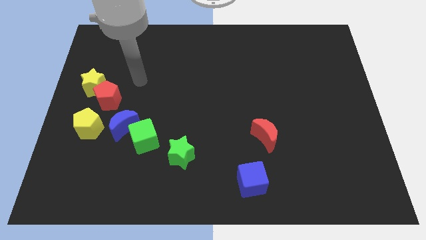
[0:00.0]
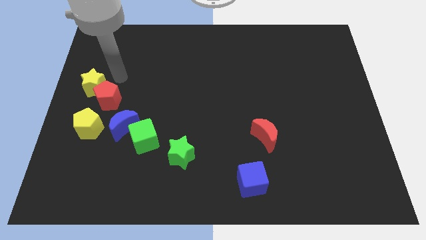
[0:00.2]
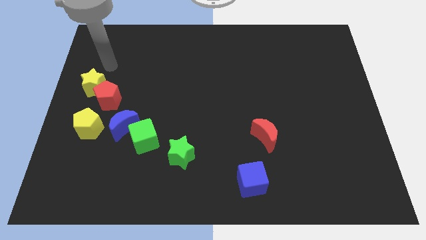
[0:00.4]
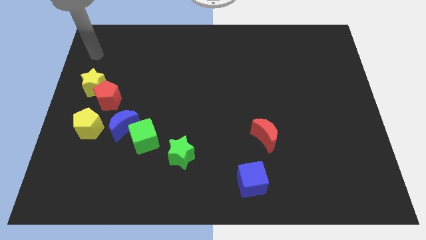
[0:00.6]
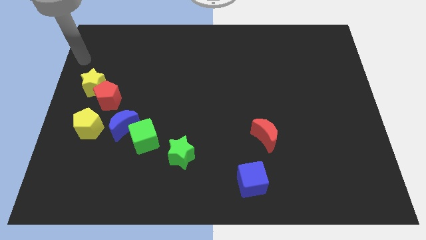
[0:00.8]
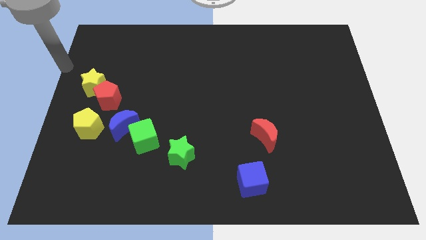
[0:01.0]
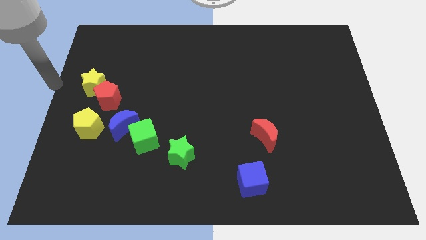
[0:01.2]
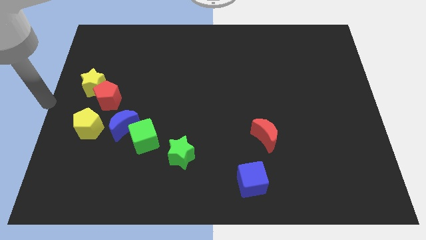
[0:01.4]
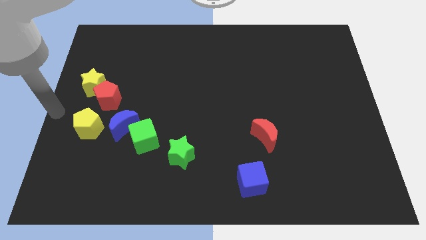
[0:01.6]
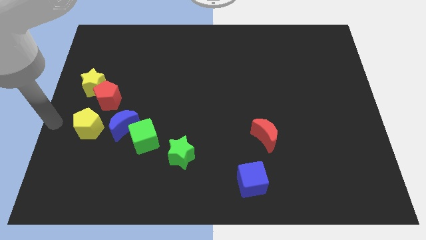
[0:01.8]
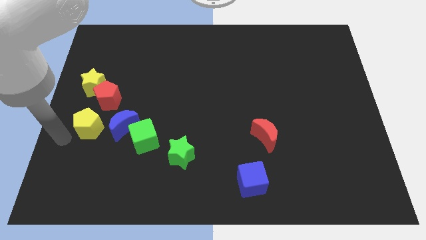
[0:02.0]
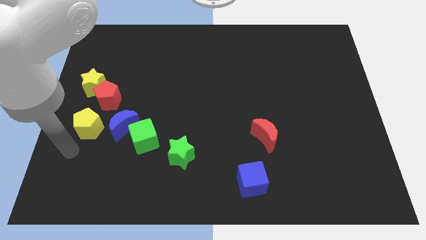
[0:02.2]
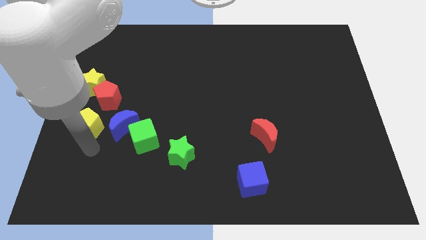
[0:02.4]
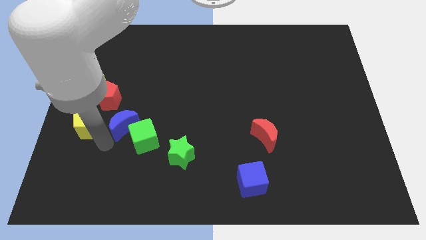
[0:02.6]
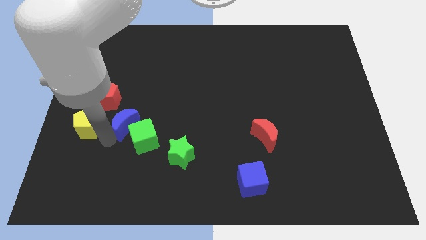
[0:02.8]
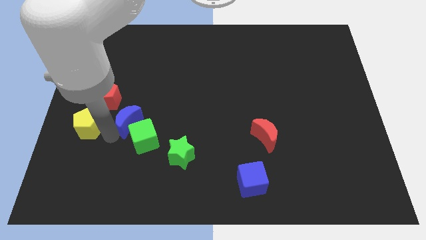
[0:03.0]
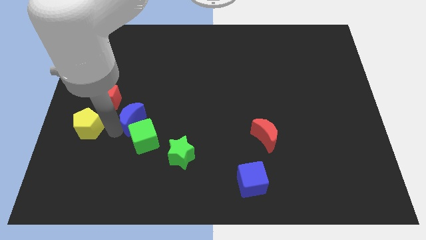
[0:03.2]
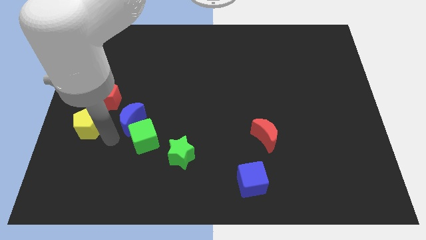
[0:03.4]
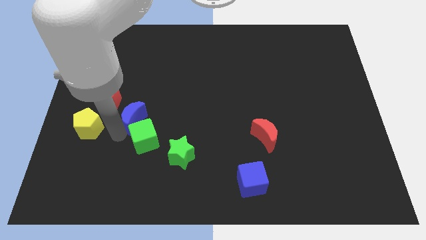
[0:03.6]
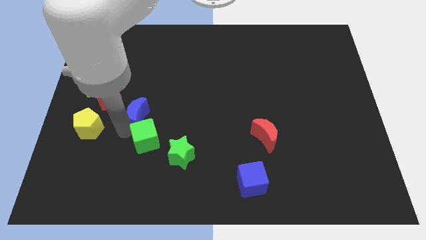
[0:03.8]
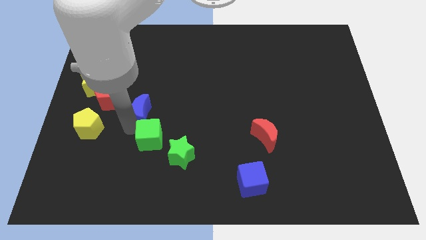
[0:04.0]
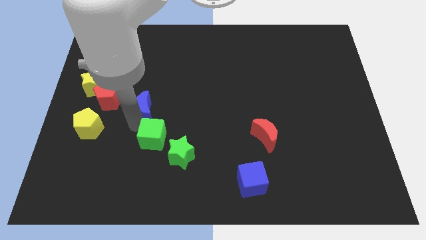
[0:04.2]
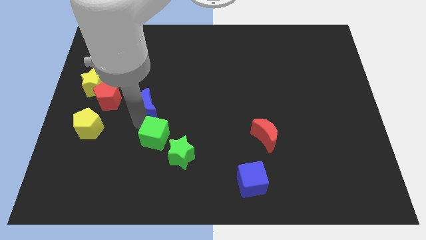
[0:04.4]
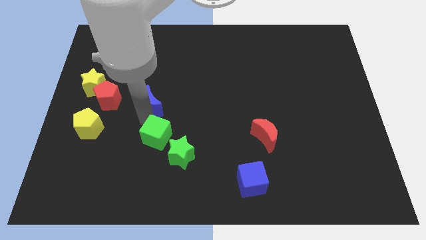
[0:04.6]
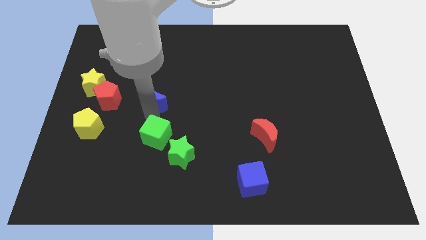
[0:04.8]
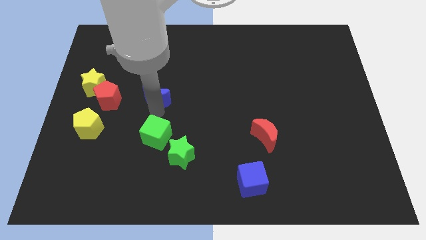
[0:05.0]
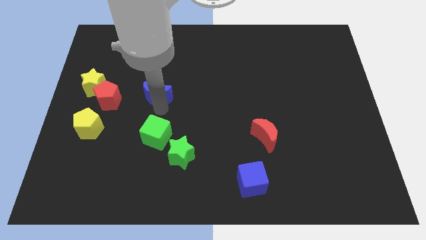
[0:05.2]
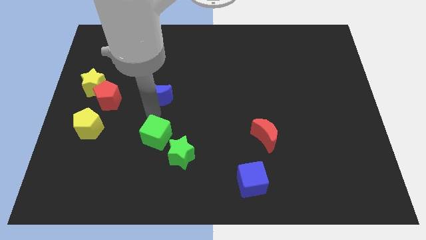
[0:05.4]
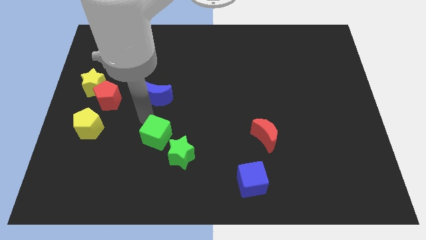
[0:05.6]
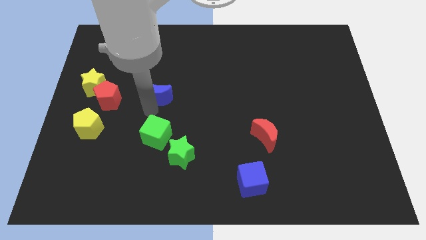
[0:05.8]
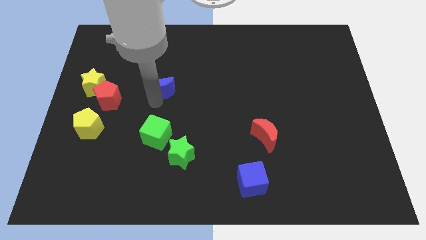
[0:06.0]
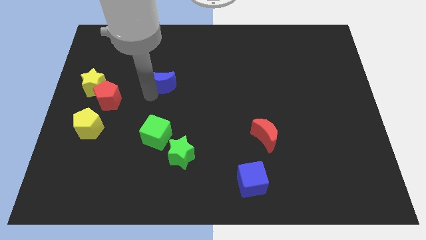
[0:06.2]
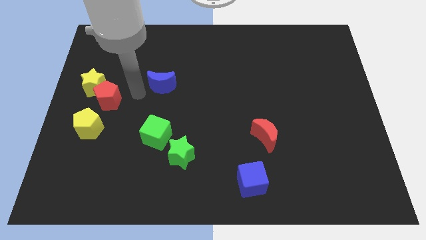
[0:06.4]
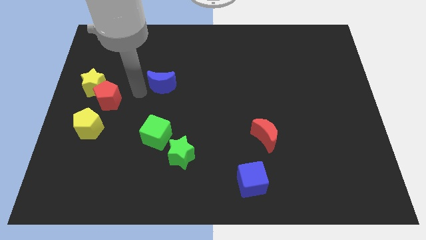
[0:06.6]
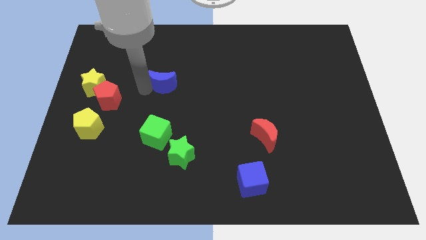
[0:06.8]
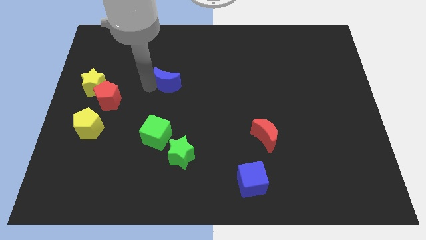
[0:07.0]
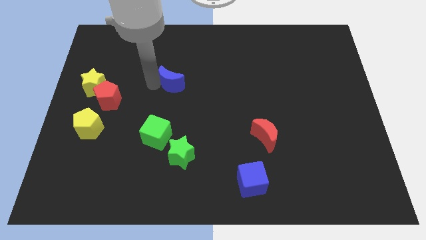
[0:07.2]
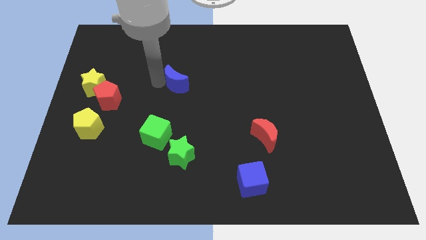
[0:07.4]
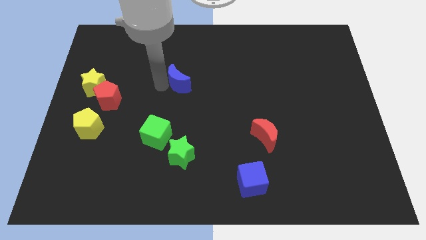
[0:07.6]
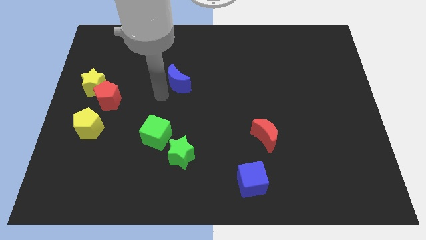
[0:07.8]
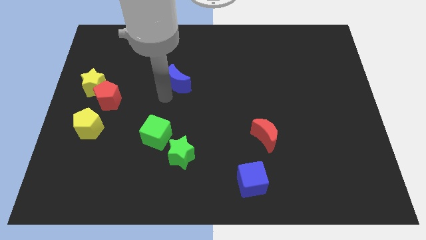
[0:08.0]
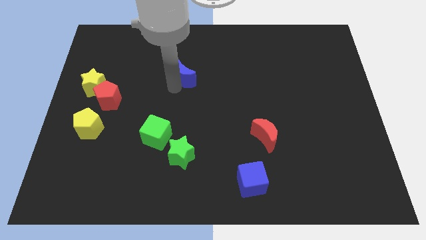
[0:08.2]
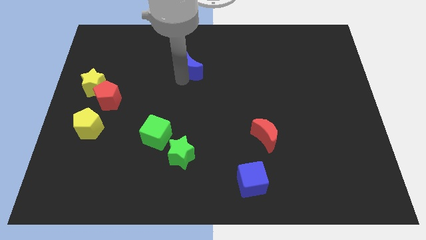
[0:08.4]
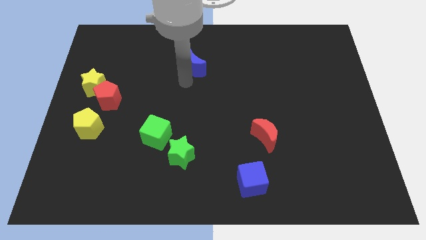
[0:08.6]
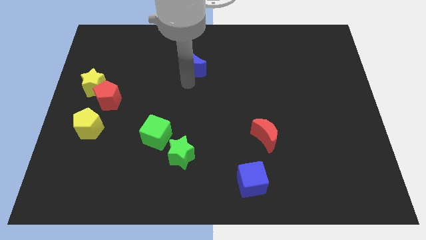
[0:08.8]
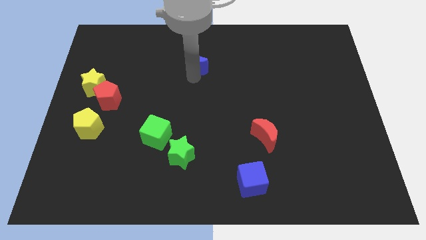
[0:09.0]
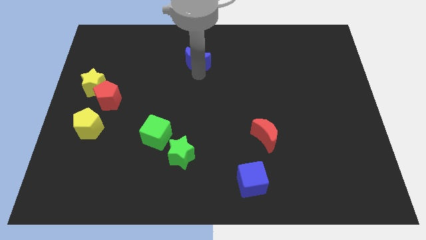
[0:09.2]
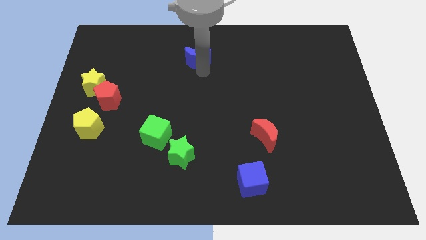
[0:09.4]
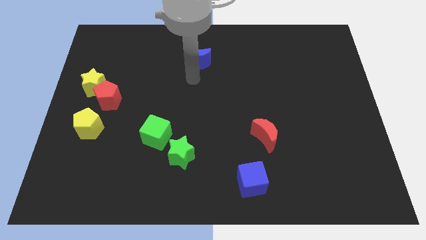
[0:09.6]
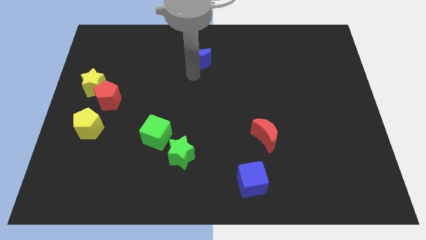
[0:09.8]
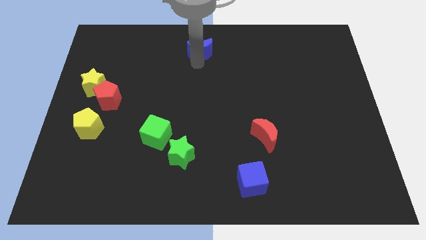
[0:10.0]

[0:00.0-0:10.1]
slide the blue moon to the top

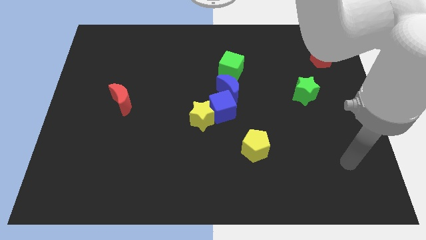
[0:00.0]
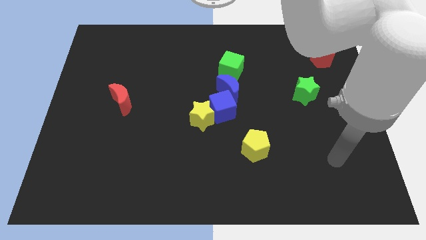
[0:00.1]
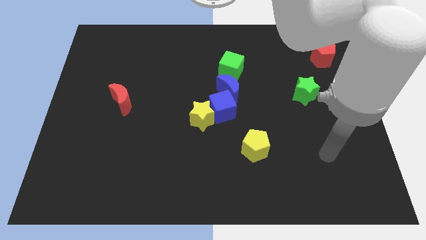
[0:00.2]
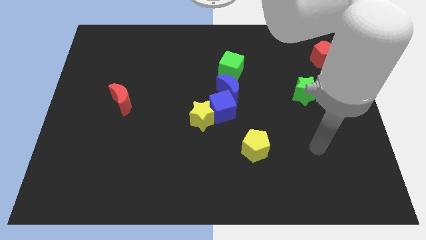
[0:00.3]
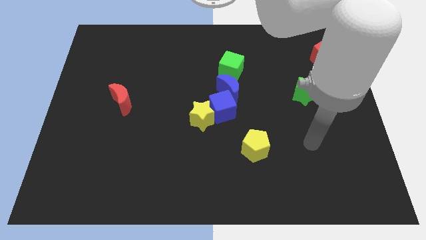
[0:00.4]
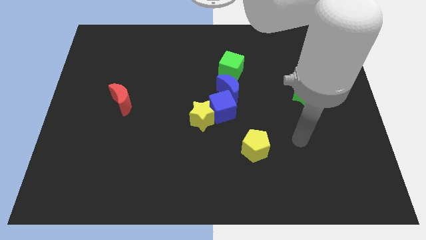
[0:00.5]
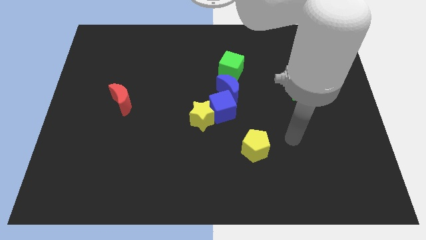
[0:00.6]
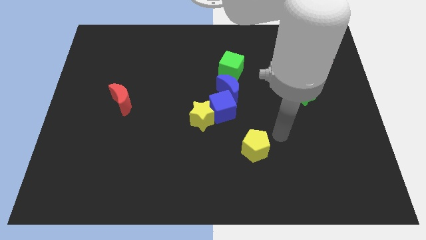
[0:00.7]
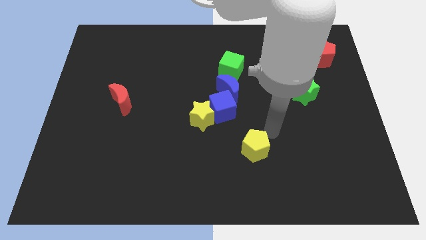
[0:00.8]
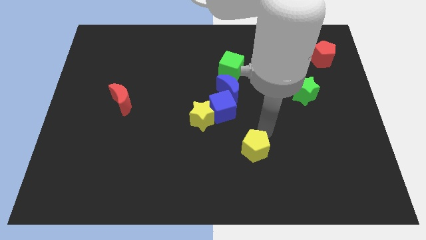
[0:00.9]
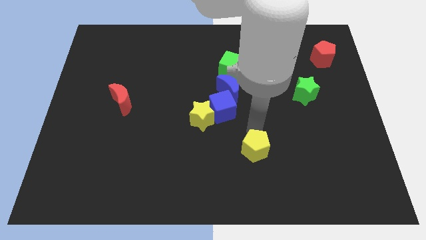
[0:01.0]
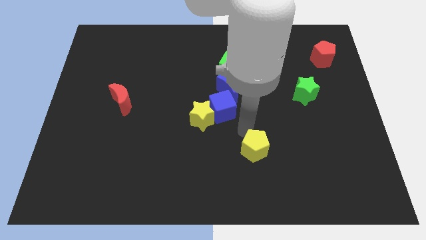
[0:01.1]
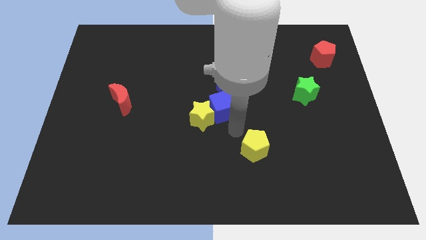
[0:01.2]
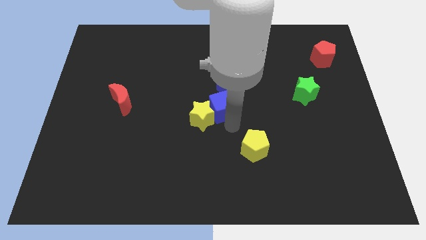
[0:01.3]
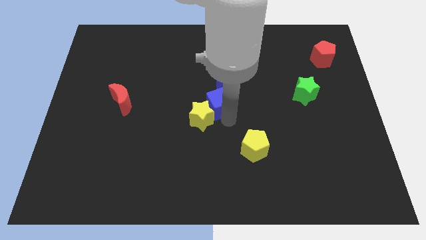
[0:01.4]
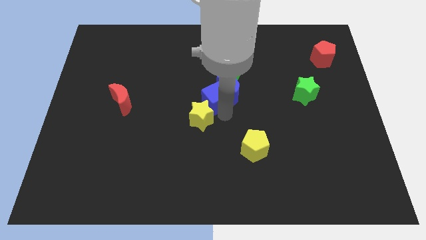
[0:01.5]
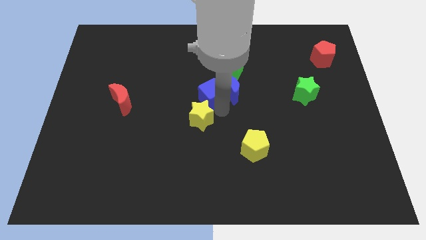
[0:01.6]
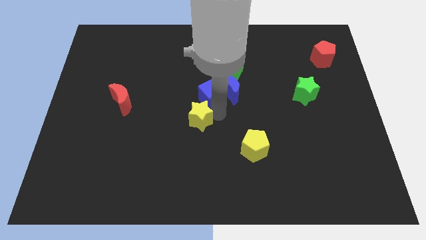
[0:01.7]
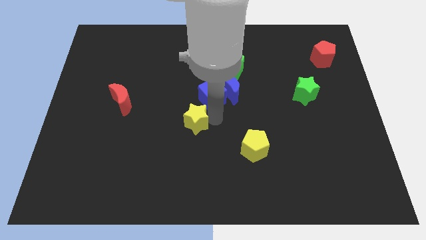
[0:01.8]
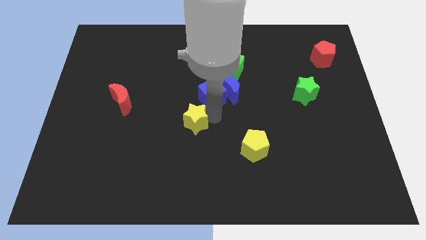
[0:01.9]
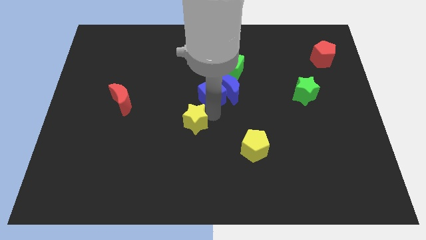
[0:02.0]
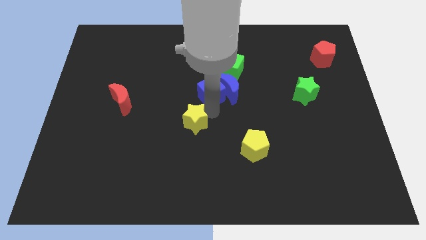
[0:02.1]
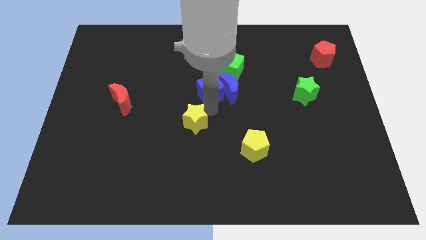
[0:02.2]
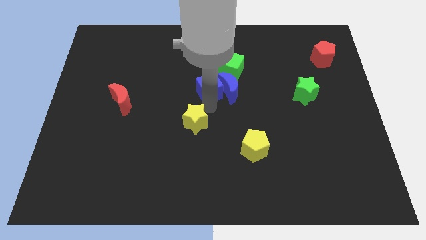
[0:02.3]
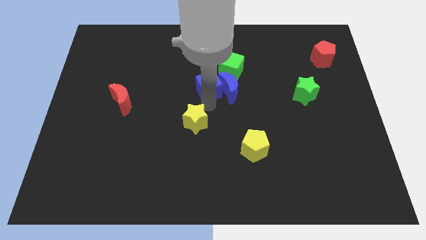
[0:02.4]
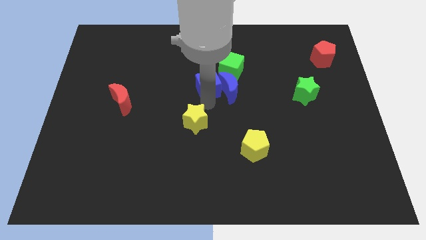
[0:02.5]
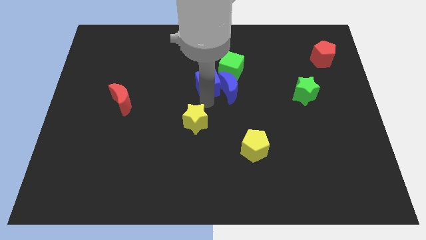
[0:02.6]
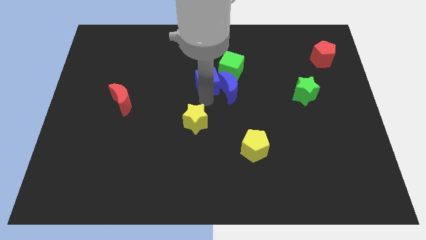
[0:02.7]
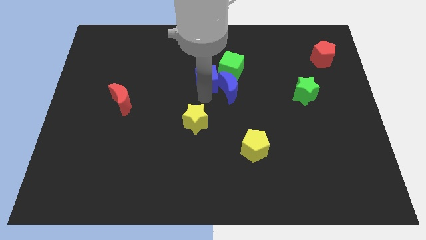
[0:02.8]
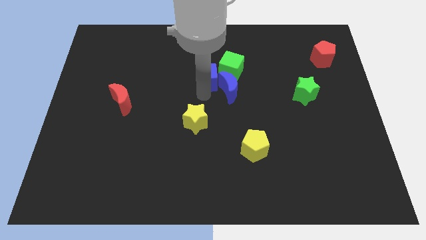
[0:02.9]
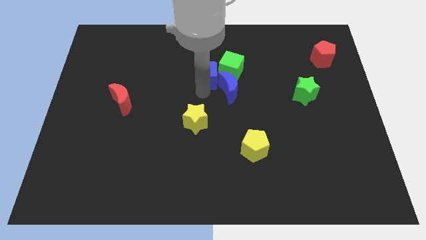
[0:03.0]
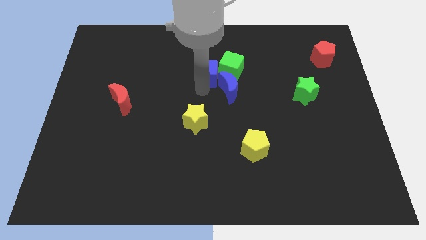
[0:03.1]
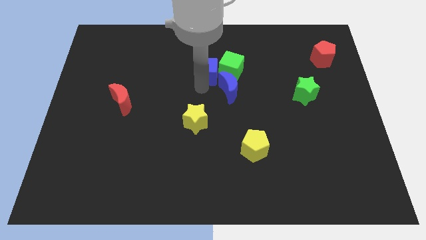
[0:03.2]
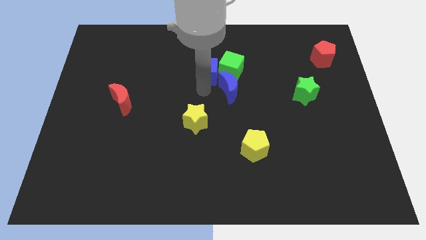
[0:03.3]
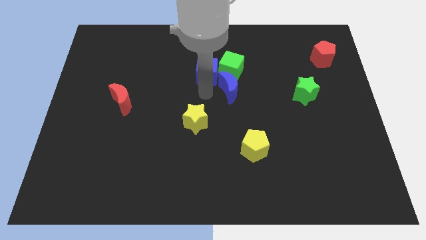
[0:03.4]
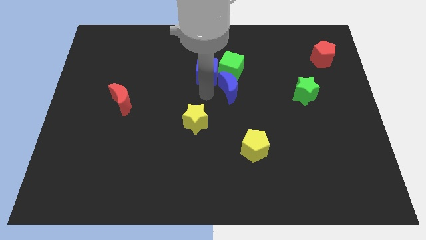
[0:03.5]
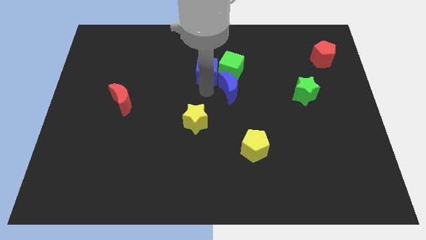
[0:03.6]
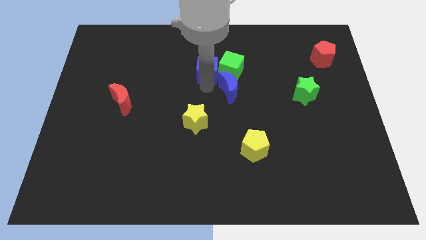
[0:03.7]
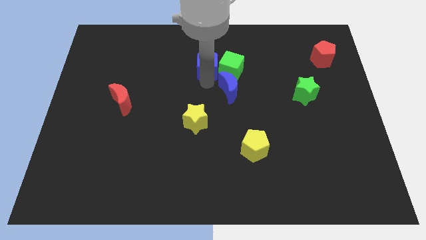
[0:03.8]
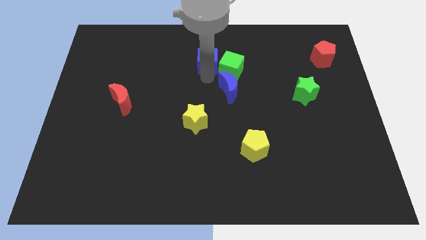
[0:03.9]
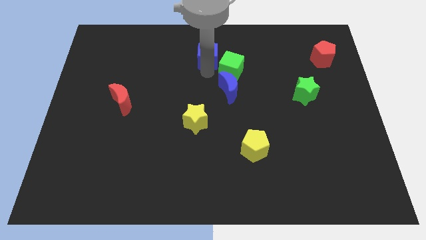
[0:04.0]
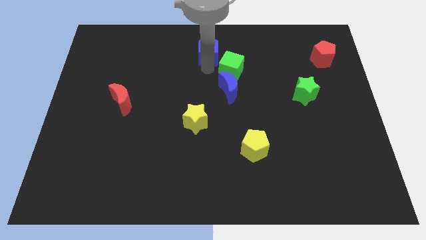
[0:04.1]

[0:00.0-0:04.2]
move the blue cube to the top side
